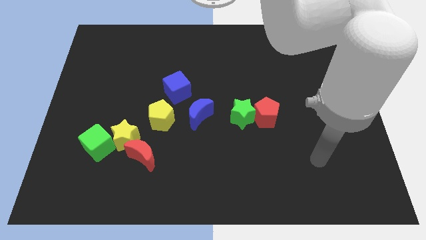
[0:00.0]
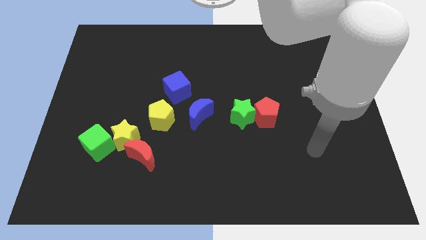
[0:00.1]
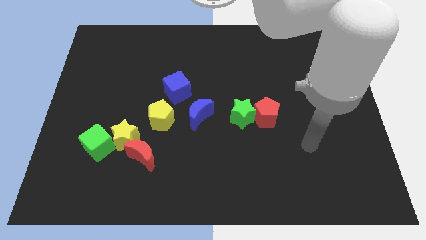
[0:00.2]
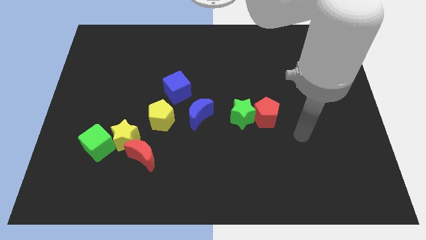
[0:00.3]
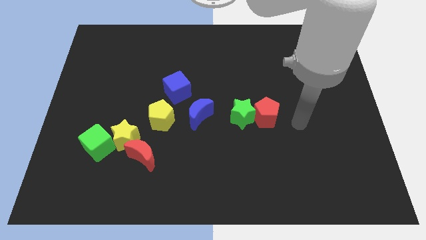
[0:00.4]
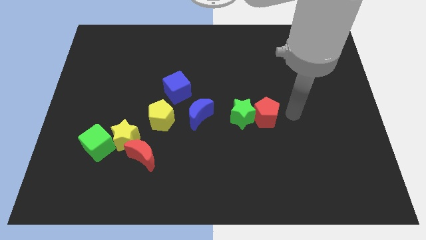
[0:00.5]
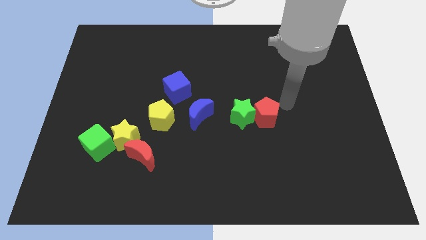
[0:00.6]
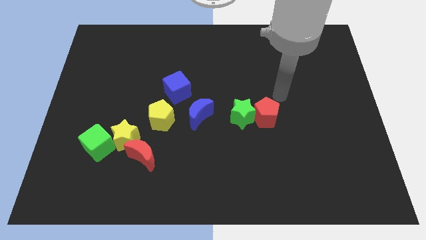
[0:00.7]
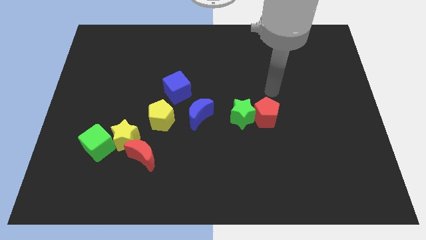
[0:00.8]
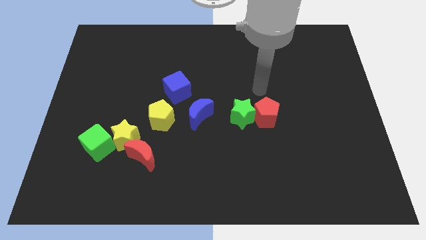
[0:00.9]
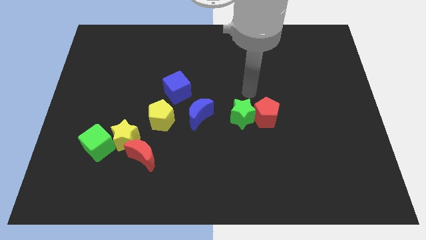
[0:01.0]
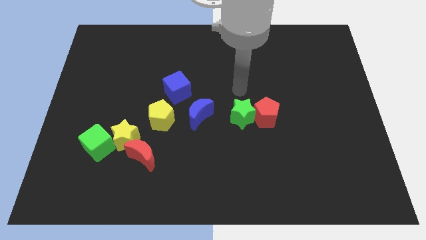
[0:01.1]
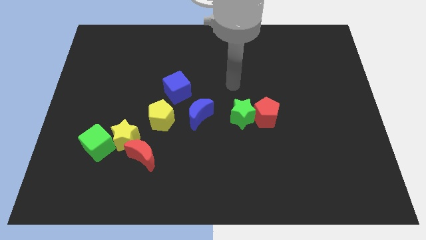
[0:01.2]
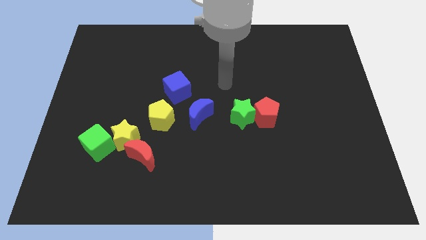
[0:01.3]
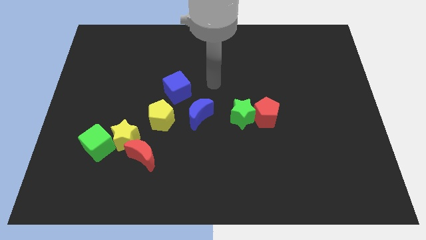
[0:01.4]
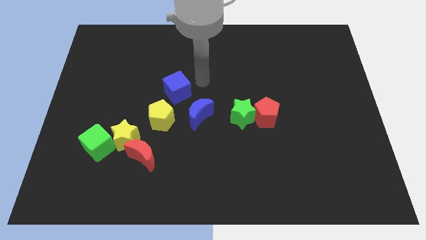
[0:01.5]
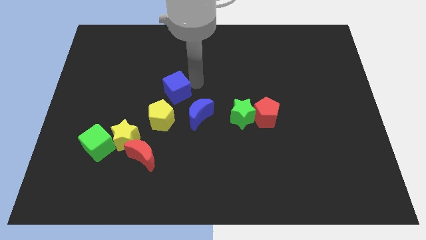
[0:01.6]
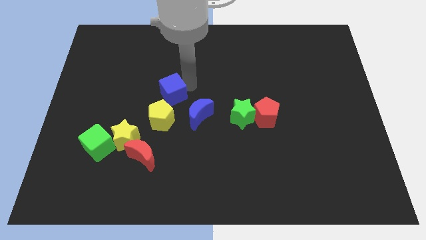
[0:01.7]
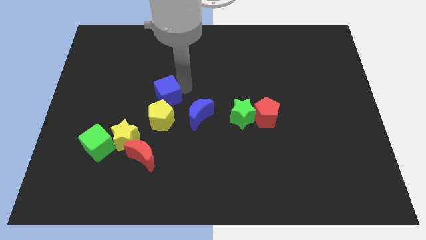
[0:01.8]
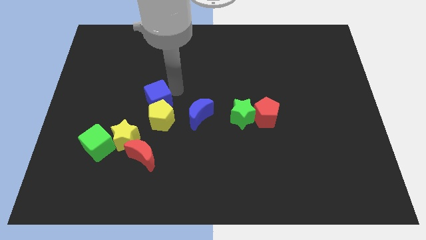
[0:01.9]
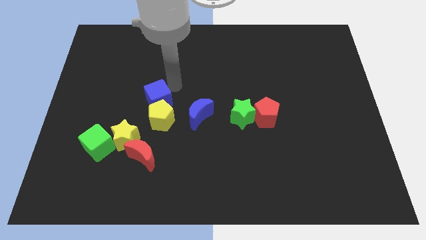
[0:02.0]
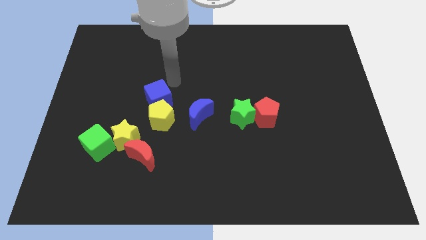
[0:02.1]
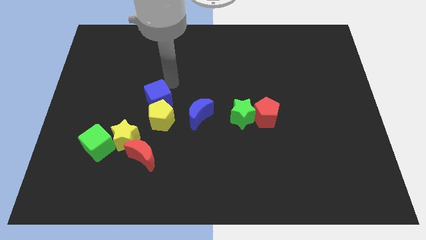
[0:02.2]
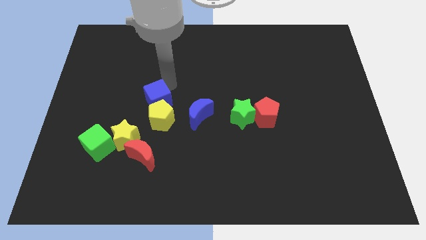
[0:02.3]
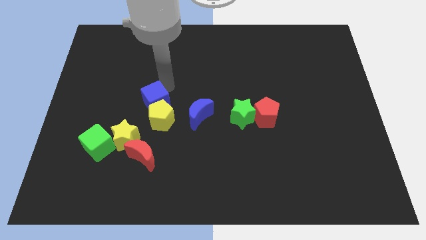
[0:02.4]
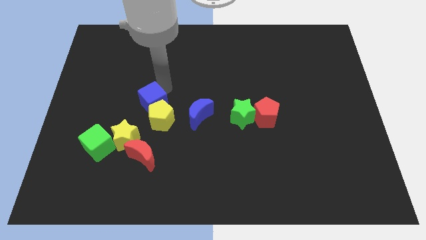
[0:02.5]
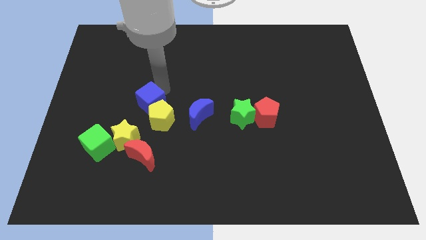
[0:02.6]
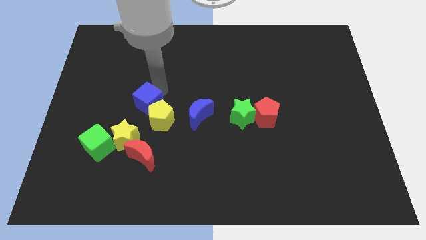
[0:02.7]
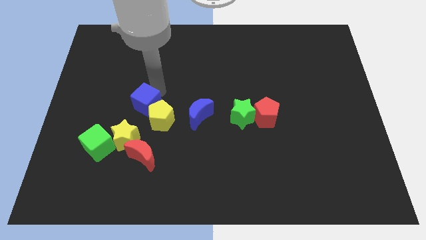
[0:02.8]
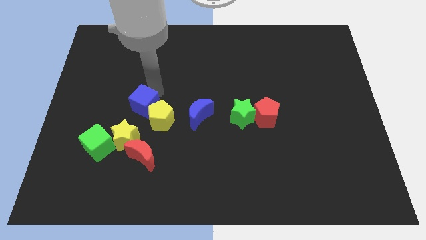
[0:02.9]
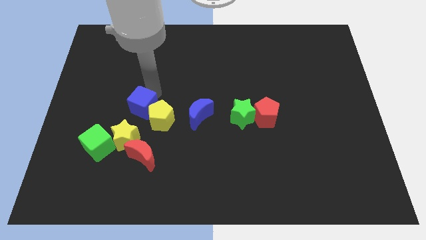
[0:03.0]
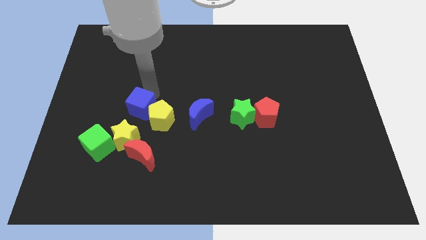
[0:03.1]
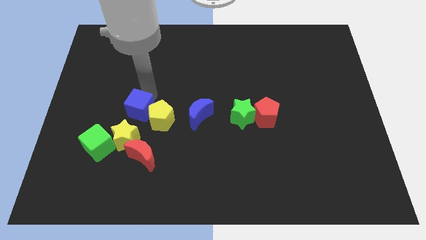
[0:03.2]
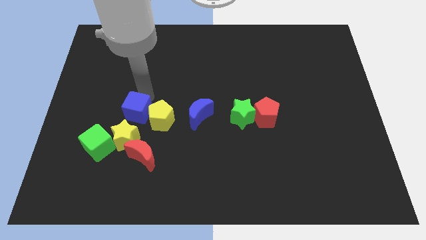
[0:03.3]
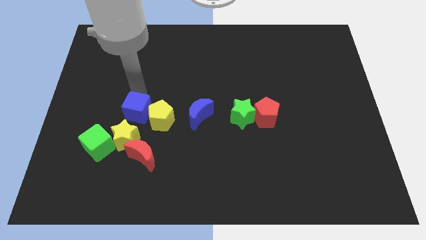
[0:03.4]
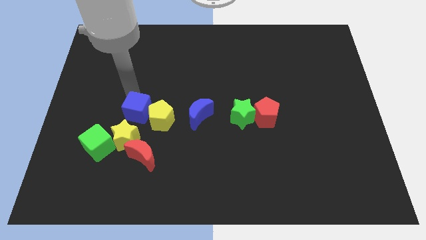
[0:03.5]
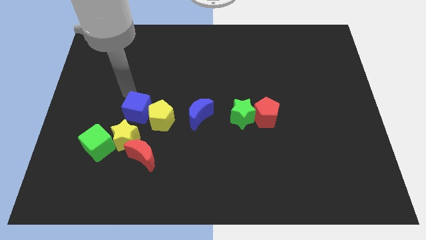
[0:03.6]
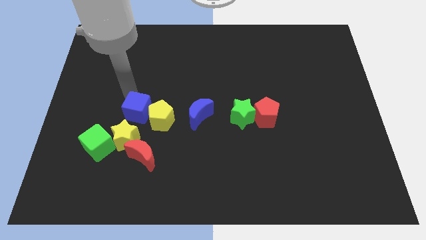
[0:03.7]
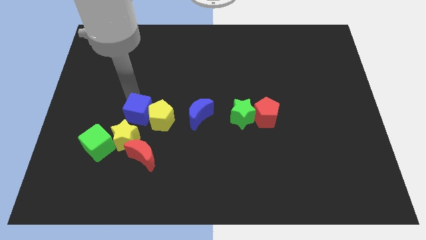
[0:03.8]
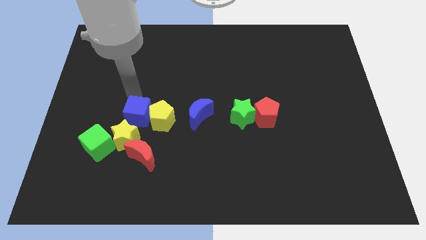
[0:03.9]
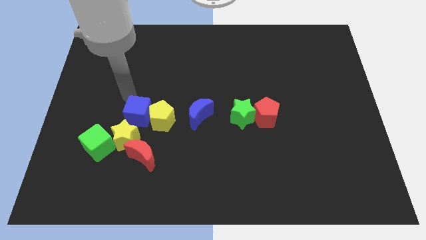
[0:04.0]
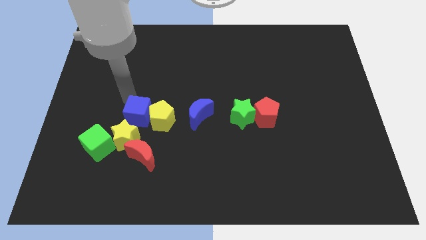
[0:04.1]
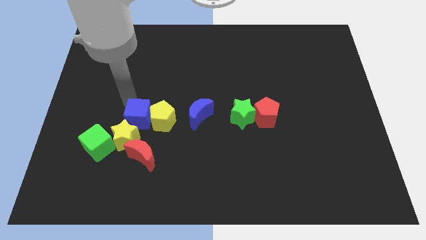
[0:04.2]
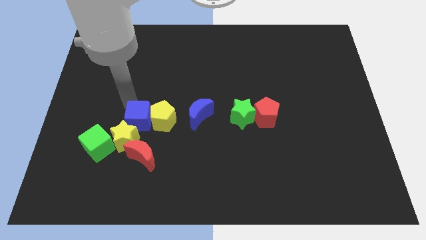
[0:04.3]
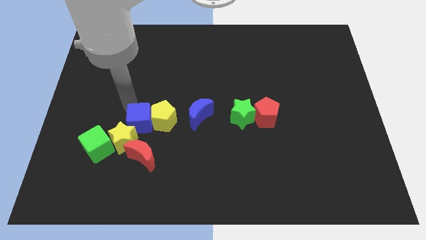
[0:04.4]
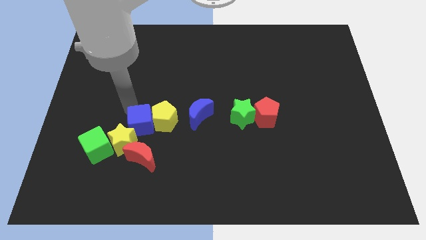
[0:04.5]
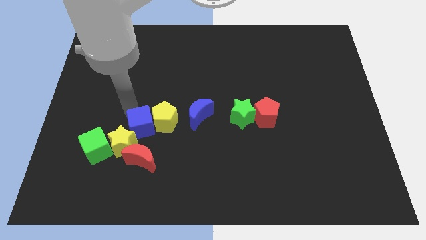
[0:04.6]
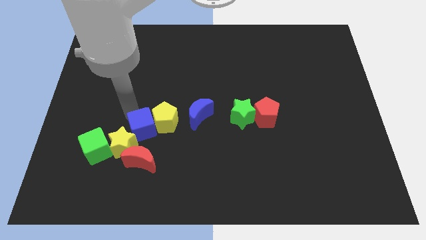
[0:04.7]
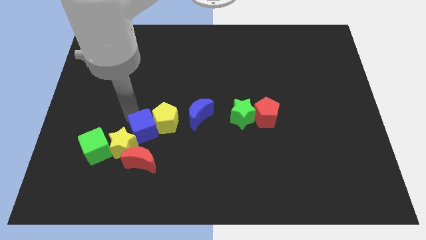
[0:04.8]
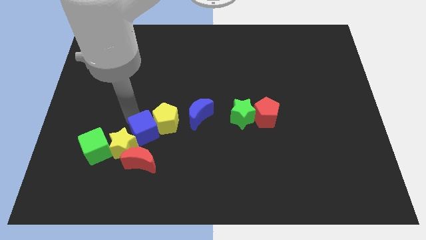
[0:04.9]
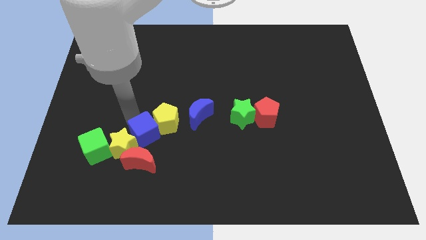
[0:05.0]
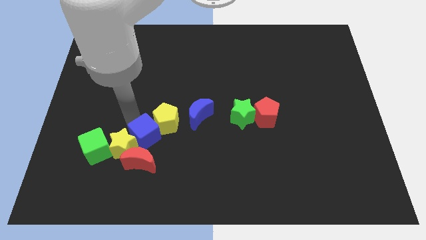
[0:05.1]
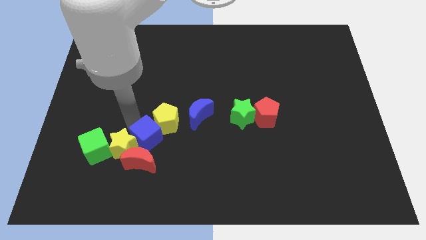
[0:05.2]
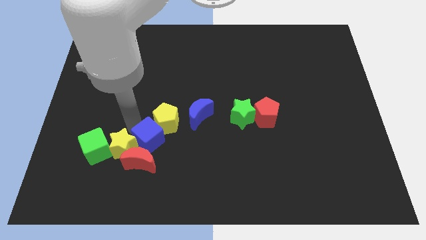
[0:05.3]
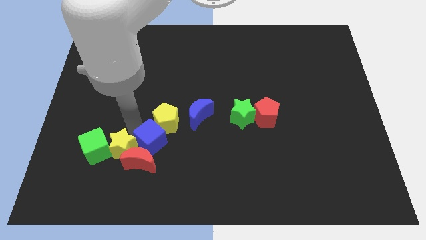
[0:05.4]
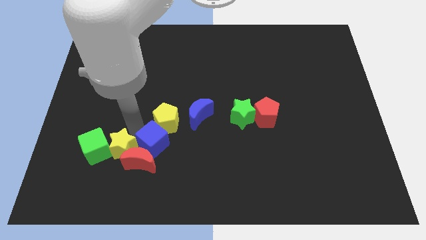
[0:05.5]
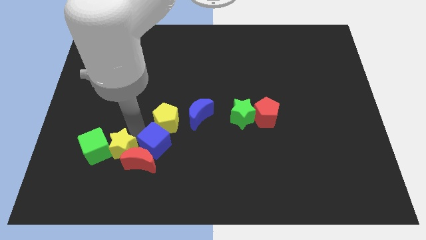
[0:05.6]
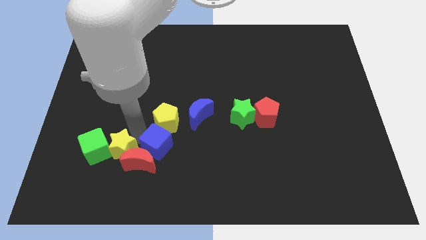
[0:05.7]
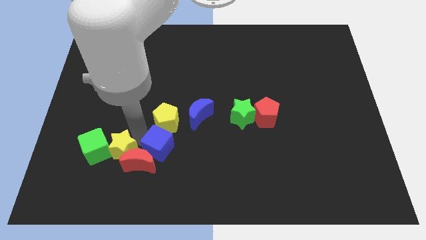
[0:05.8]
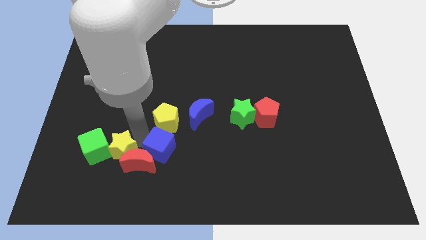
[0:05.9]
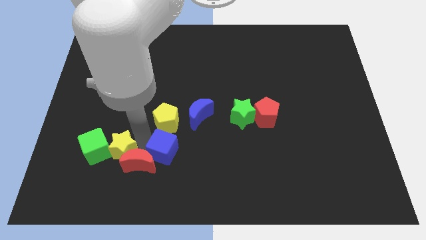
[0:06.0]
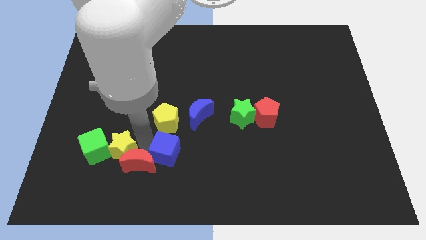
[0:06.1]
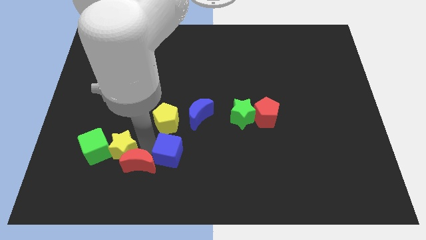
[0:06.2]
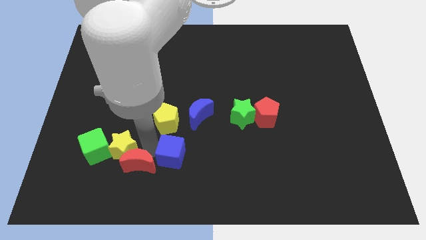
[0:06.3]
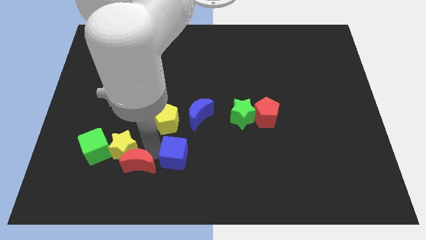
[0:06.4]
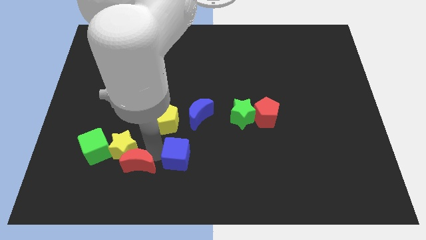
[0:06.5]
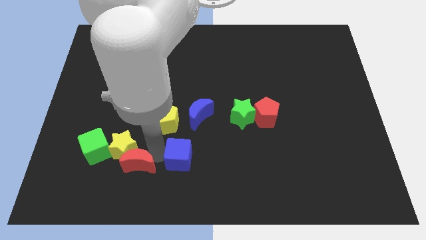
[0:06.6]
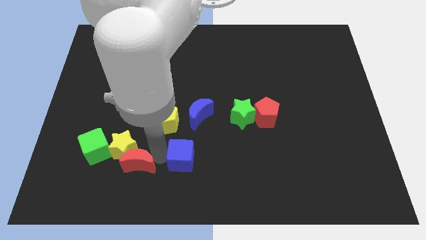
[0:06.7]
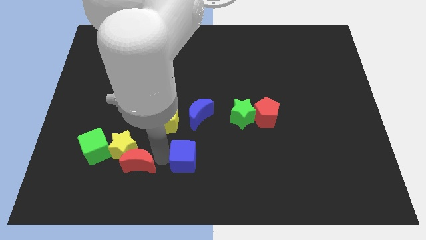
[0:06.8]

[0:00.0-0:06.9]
push the blue cube to the bottom
